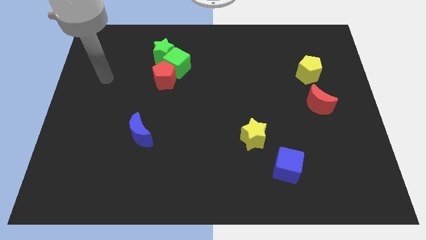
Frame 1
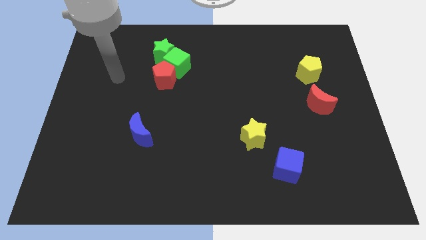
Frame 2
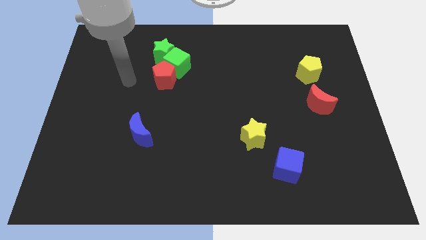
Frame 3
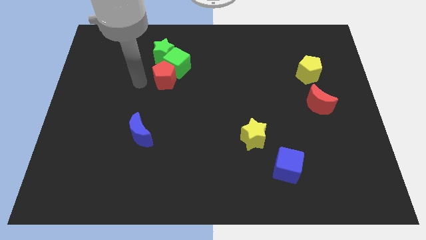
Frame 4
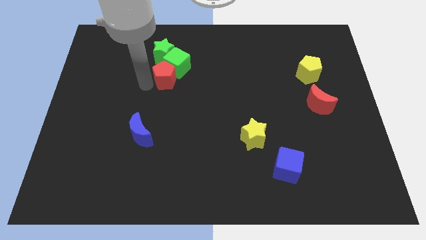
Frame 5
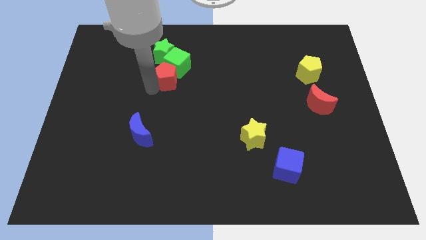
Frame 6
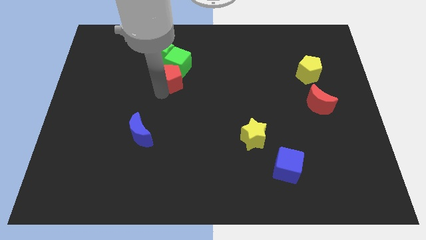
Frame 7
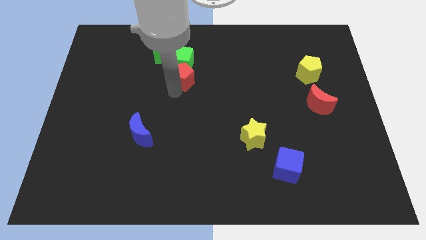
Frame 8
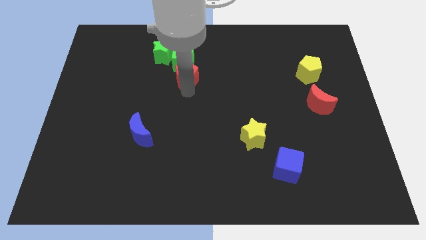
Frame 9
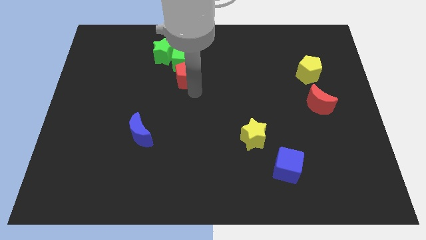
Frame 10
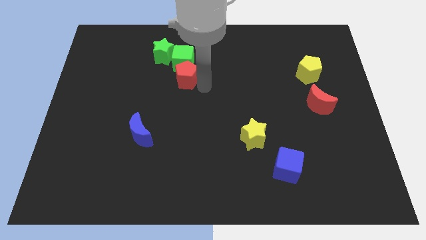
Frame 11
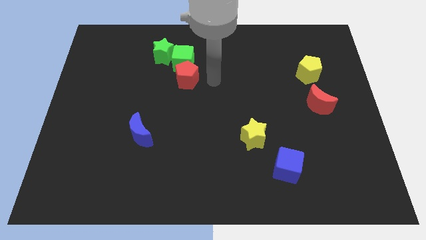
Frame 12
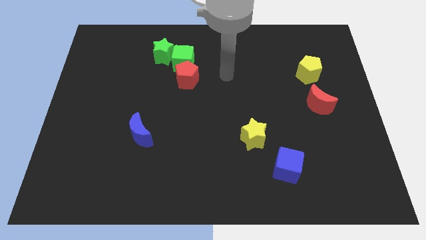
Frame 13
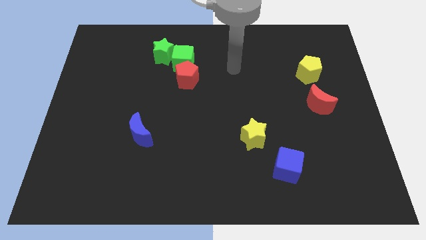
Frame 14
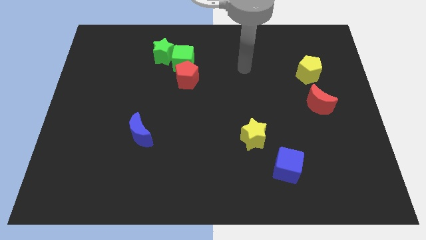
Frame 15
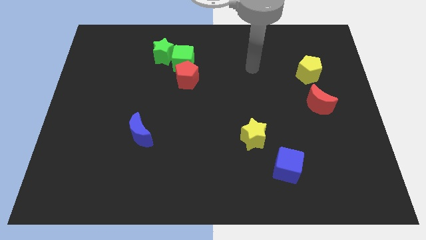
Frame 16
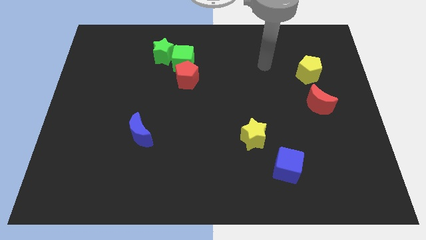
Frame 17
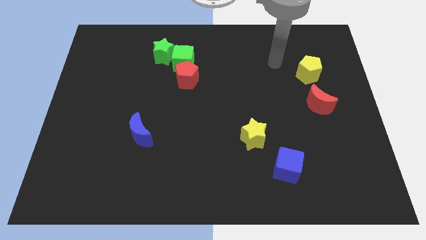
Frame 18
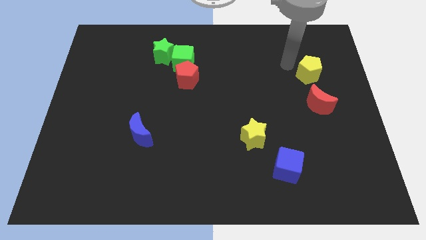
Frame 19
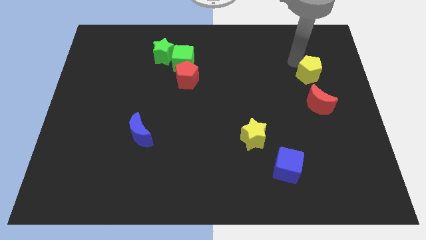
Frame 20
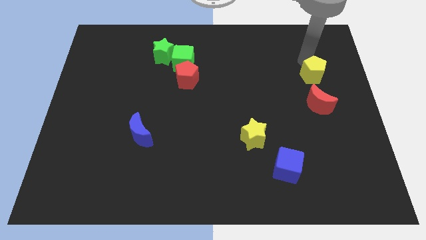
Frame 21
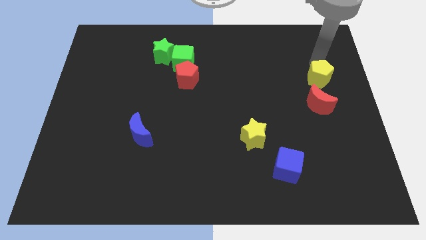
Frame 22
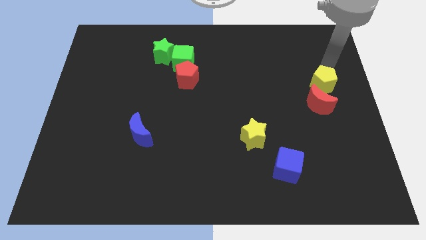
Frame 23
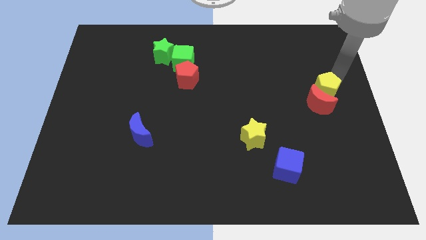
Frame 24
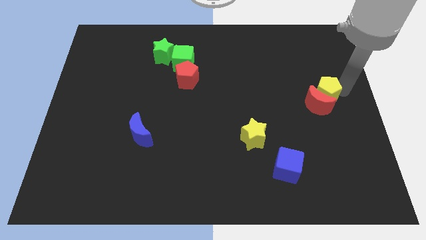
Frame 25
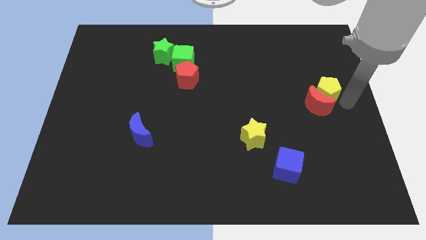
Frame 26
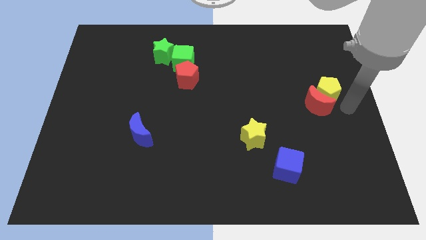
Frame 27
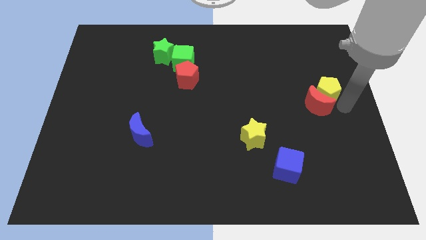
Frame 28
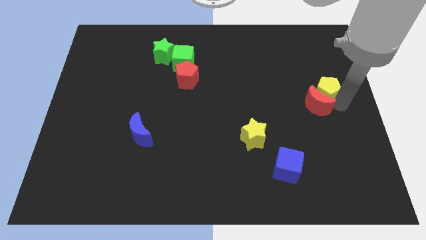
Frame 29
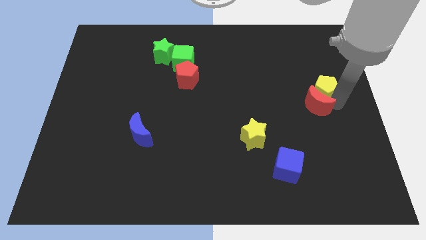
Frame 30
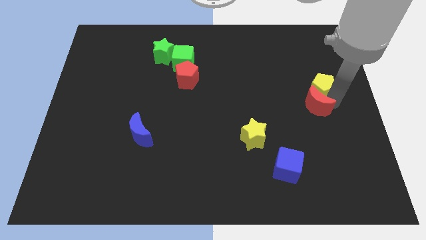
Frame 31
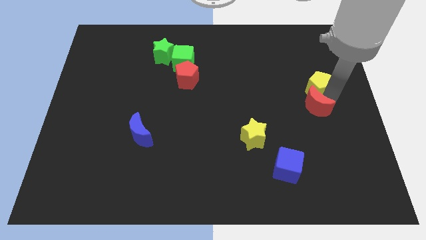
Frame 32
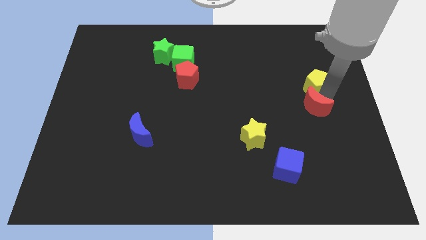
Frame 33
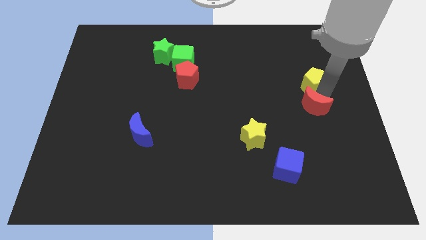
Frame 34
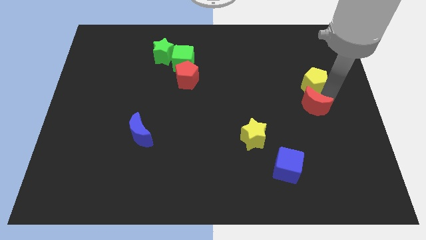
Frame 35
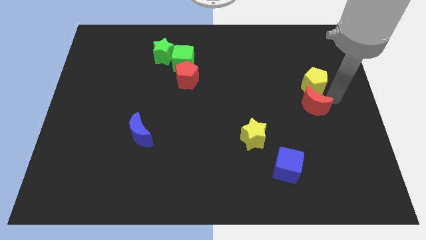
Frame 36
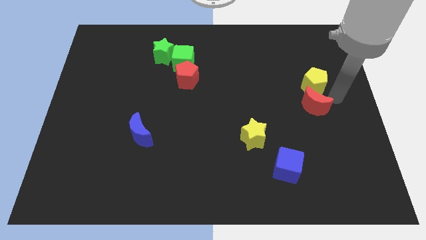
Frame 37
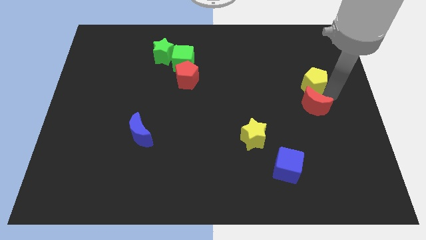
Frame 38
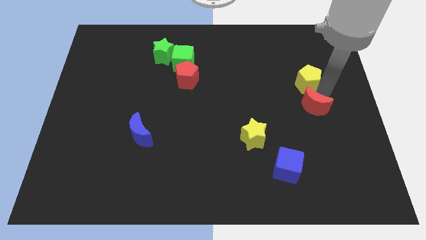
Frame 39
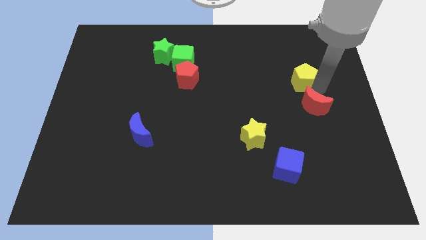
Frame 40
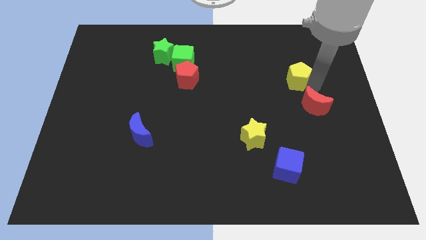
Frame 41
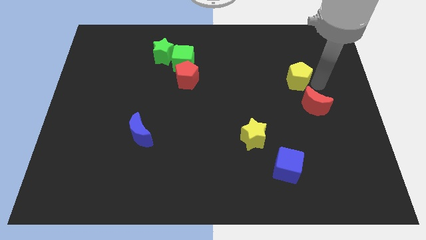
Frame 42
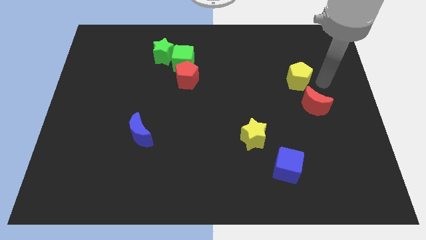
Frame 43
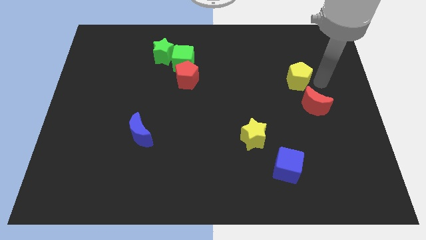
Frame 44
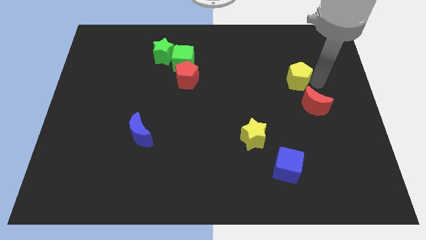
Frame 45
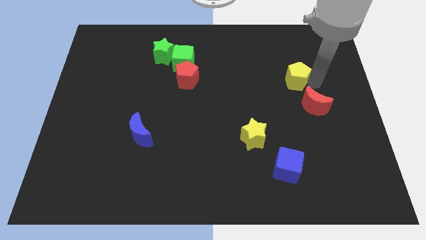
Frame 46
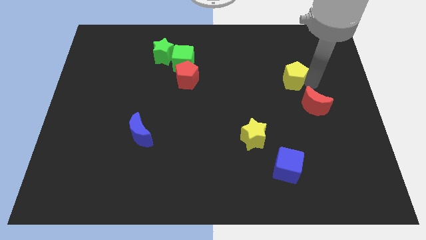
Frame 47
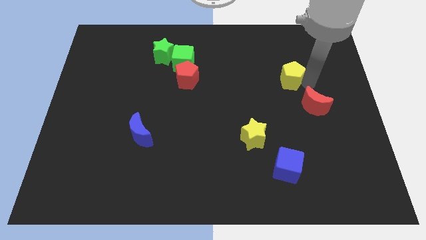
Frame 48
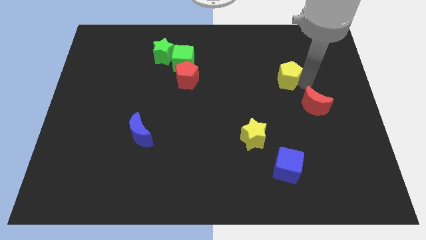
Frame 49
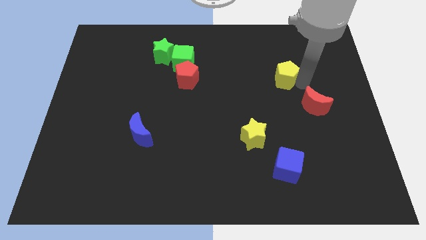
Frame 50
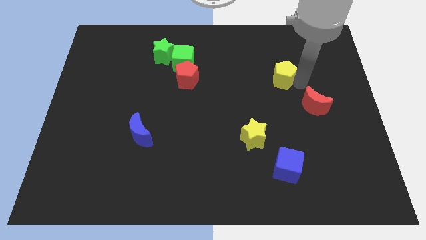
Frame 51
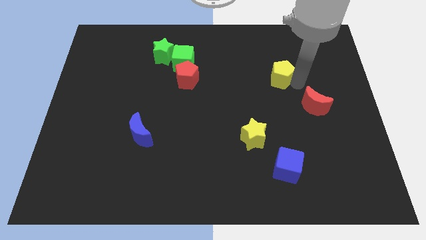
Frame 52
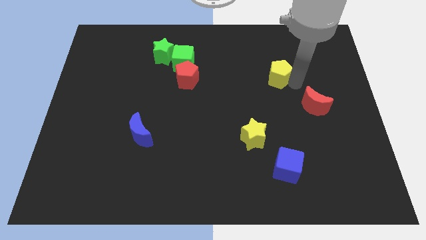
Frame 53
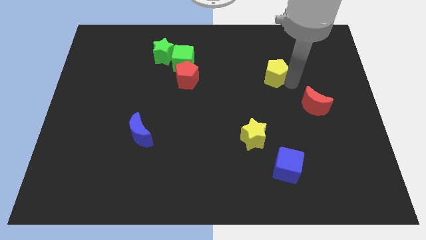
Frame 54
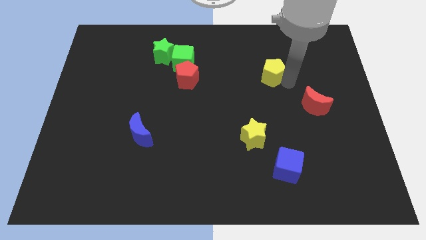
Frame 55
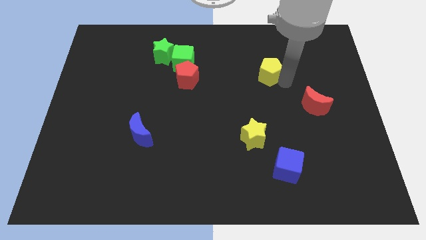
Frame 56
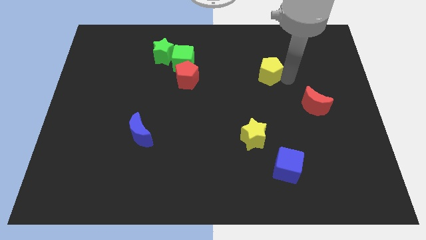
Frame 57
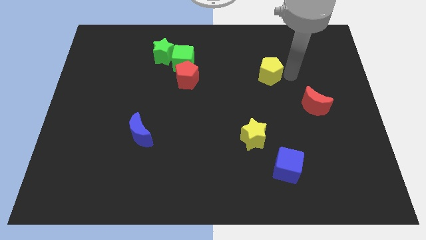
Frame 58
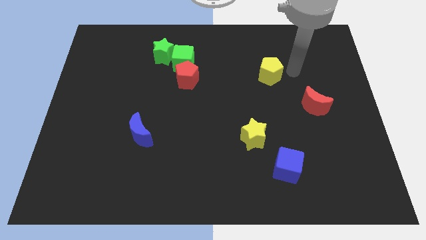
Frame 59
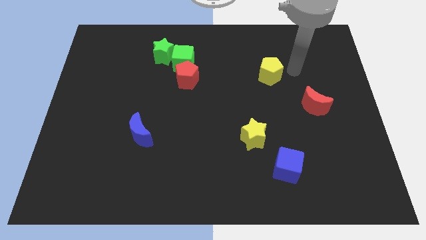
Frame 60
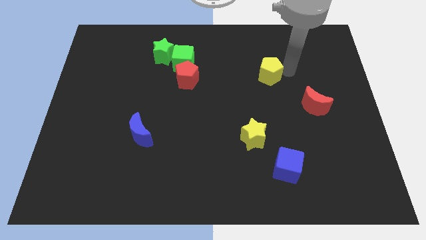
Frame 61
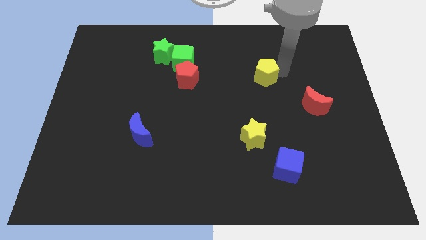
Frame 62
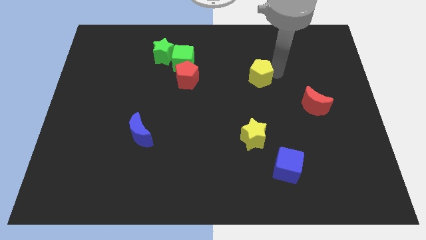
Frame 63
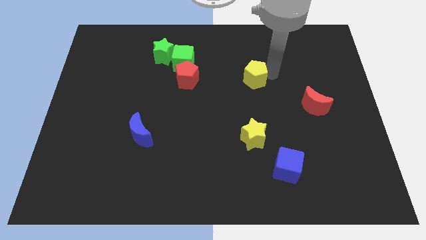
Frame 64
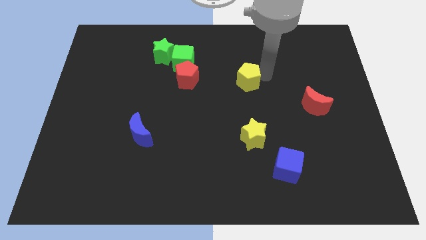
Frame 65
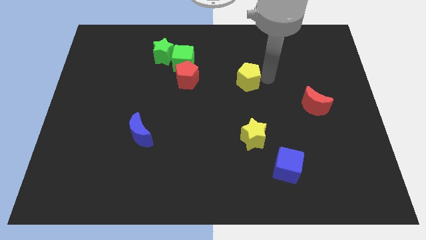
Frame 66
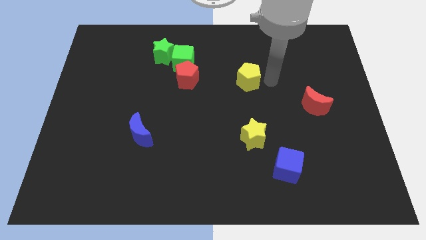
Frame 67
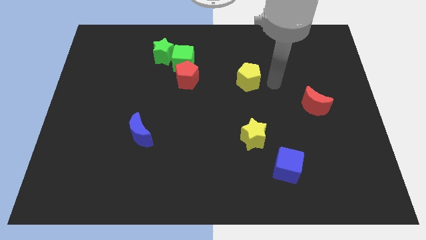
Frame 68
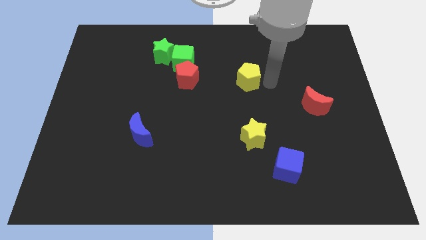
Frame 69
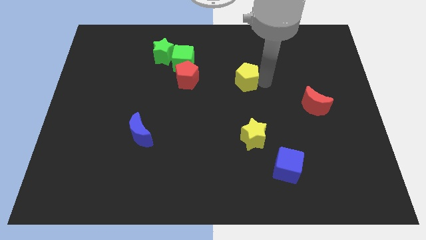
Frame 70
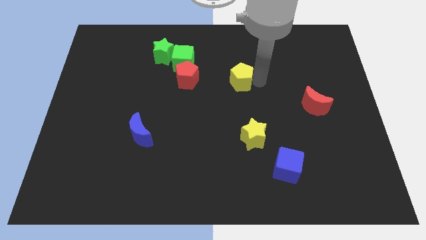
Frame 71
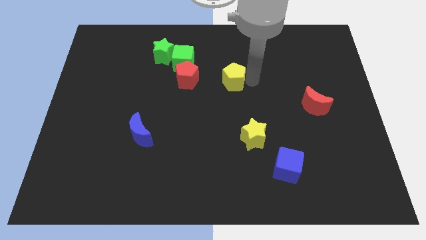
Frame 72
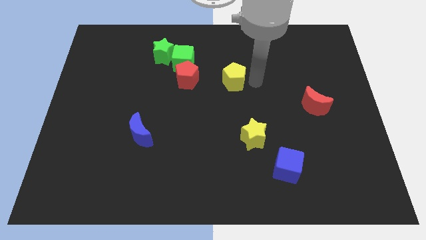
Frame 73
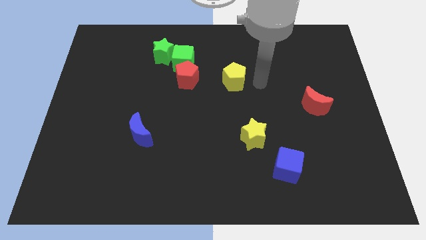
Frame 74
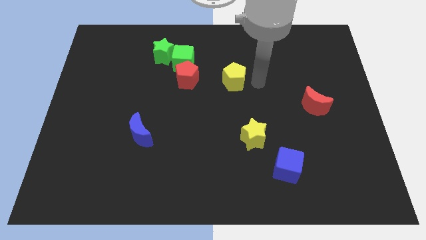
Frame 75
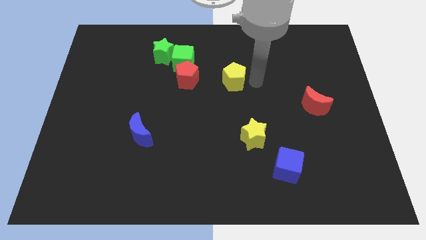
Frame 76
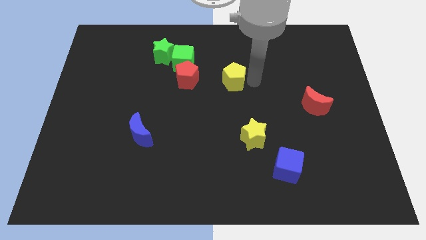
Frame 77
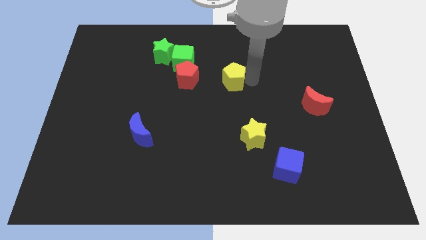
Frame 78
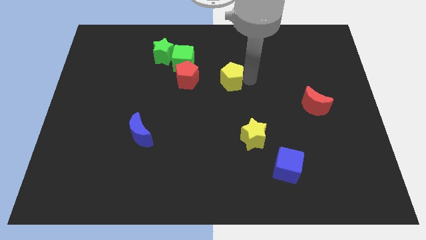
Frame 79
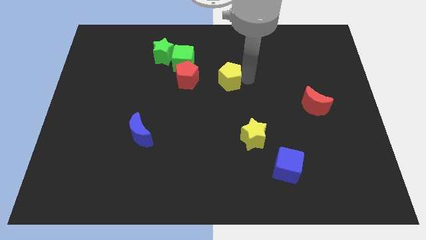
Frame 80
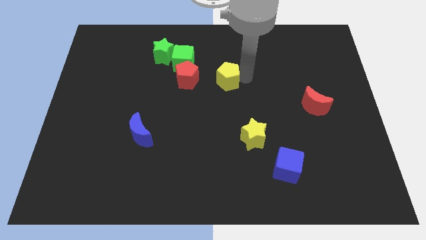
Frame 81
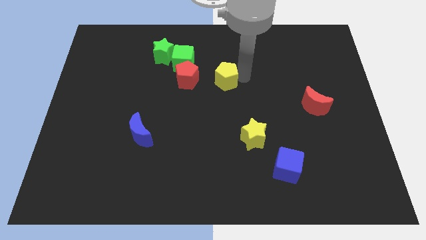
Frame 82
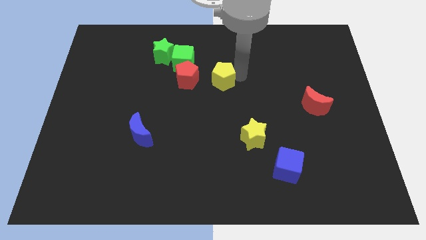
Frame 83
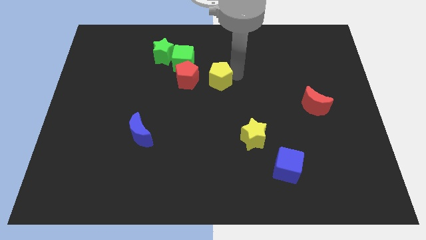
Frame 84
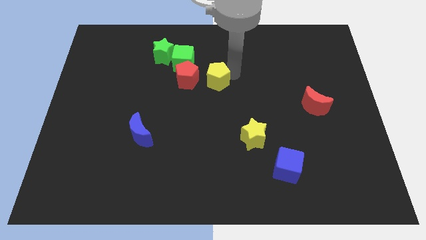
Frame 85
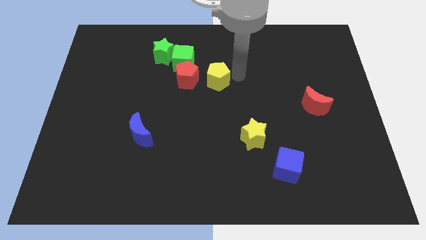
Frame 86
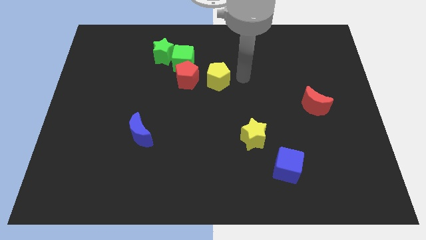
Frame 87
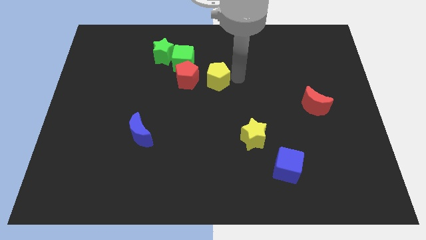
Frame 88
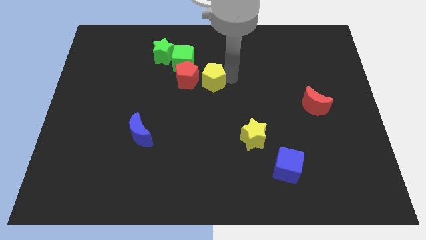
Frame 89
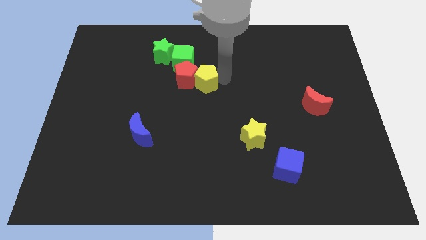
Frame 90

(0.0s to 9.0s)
slide the yellow pentagon close to the red pentagon
